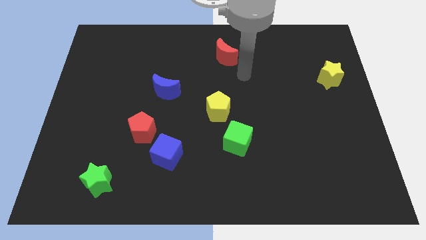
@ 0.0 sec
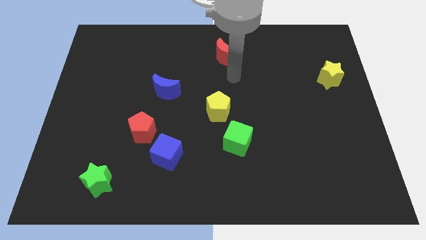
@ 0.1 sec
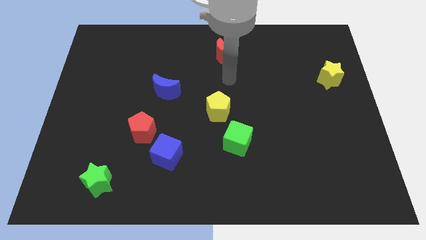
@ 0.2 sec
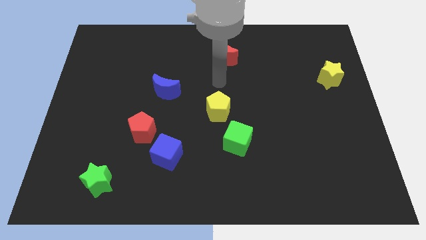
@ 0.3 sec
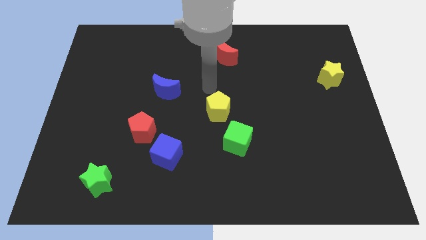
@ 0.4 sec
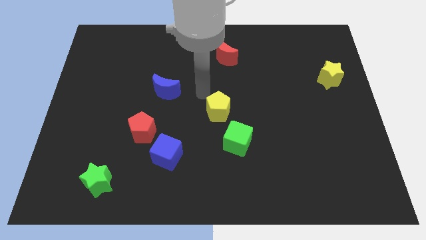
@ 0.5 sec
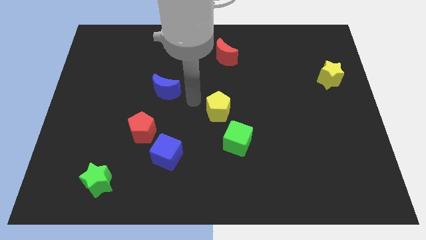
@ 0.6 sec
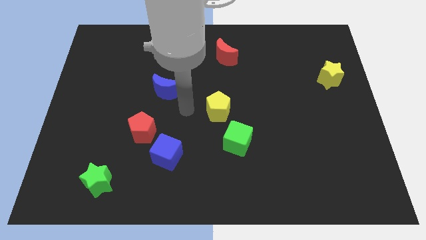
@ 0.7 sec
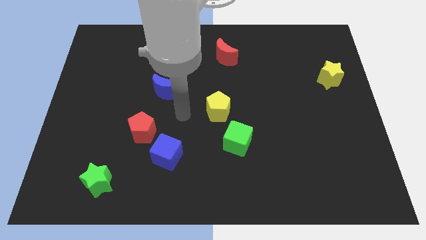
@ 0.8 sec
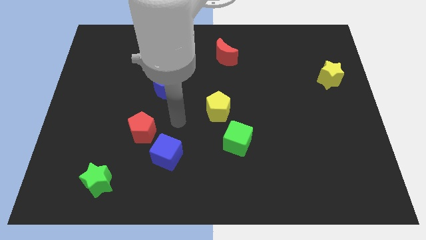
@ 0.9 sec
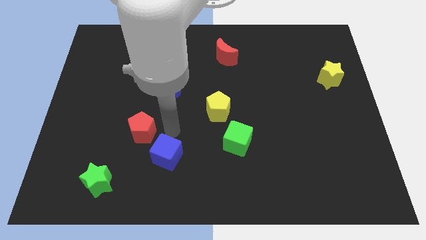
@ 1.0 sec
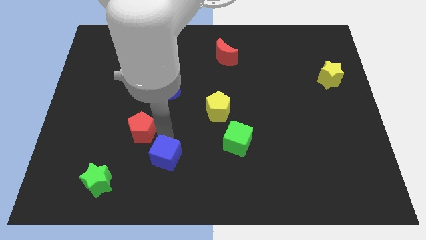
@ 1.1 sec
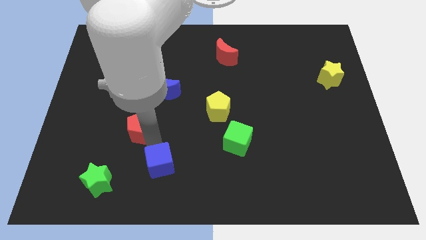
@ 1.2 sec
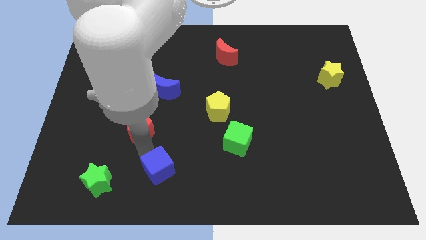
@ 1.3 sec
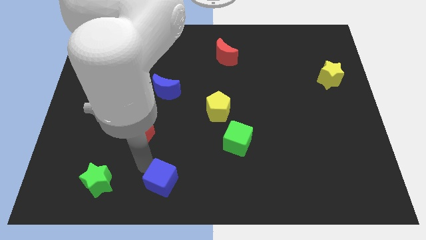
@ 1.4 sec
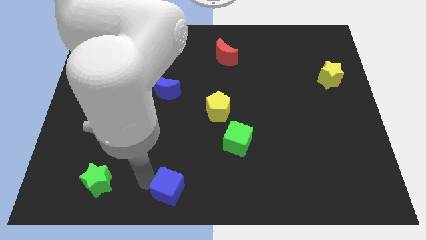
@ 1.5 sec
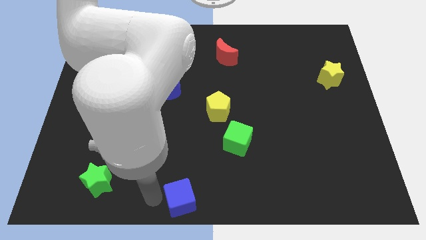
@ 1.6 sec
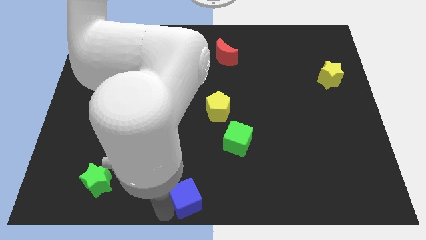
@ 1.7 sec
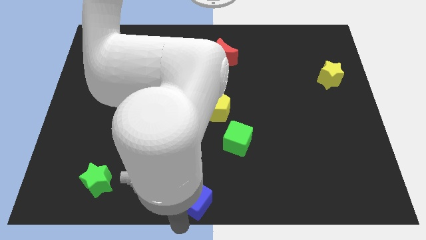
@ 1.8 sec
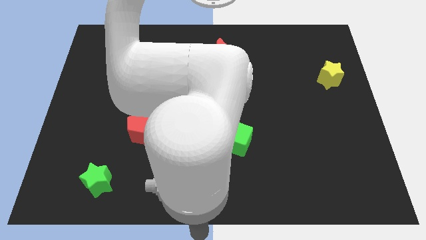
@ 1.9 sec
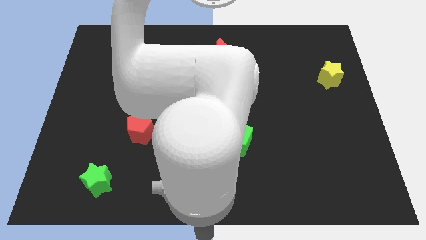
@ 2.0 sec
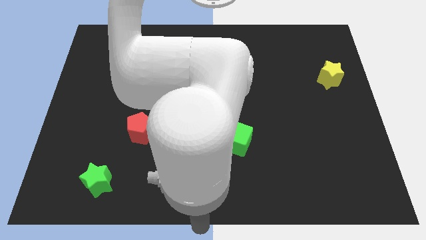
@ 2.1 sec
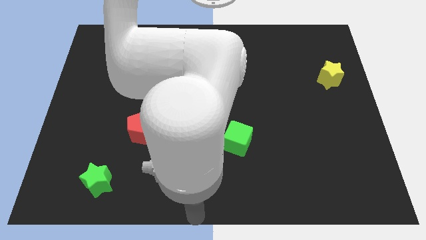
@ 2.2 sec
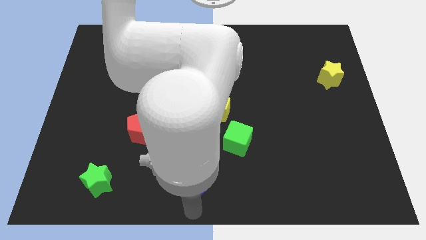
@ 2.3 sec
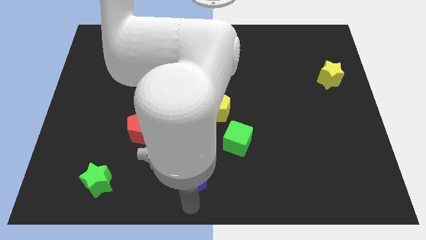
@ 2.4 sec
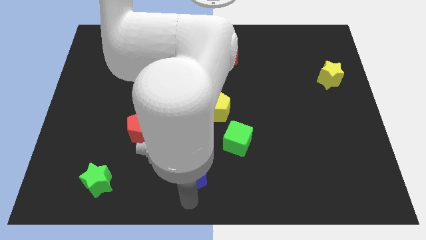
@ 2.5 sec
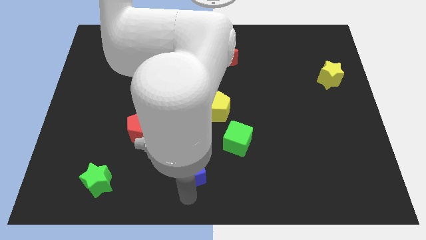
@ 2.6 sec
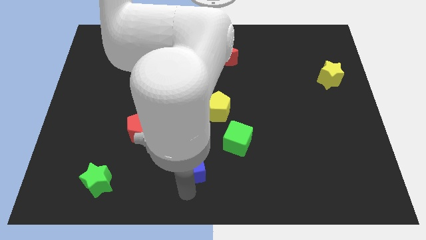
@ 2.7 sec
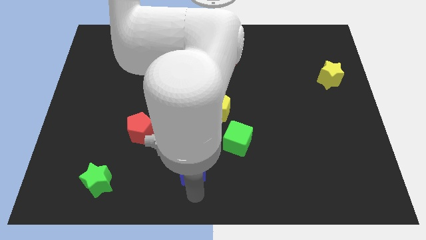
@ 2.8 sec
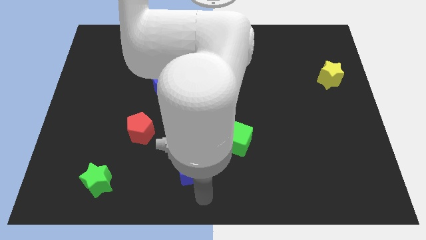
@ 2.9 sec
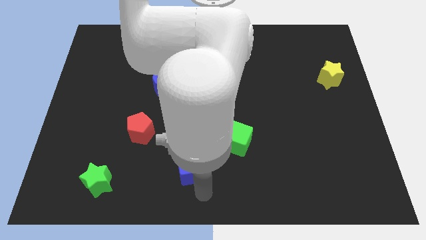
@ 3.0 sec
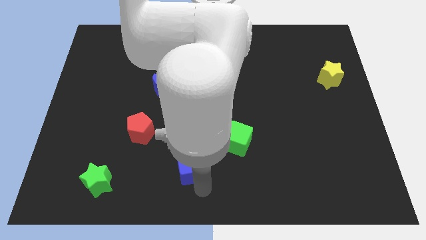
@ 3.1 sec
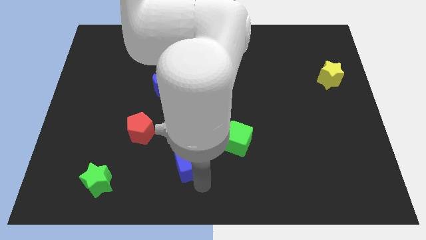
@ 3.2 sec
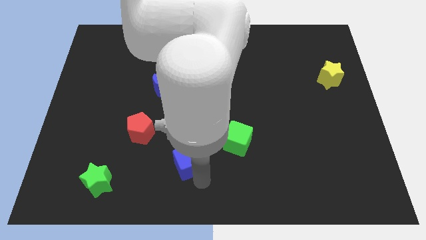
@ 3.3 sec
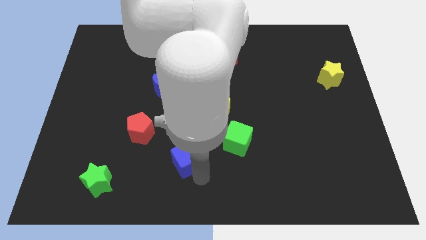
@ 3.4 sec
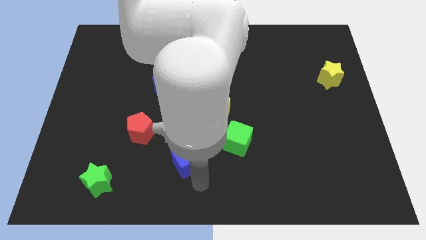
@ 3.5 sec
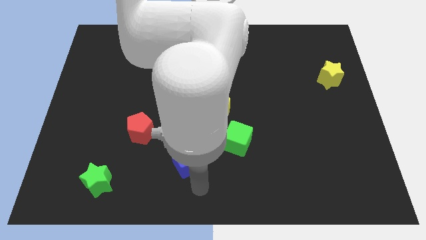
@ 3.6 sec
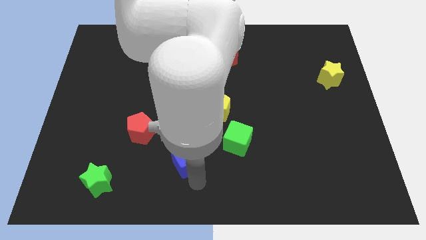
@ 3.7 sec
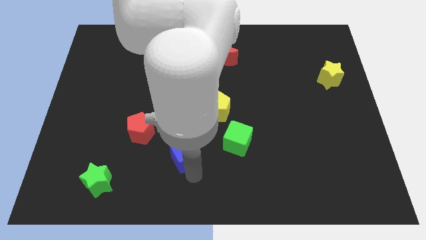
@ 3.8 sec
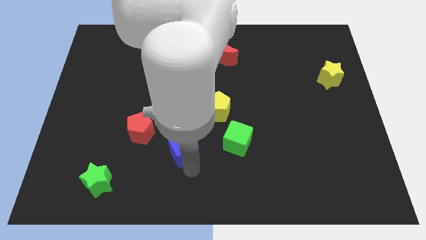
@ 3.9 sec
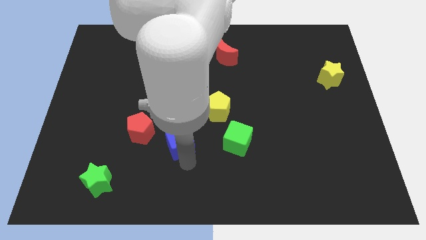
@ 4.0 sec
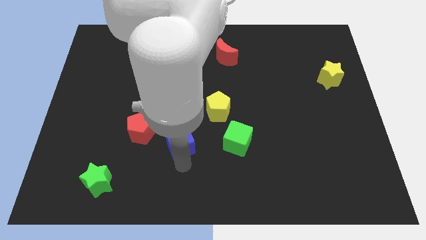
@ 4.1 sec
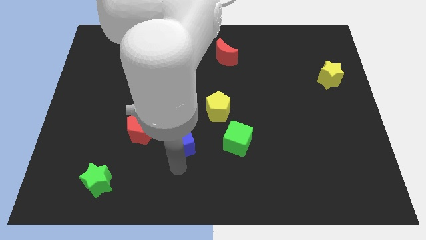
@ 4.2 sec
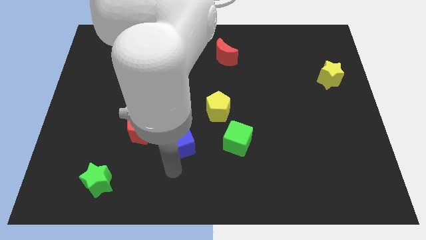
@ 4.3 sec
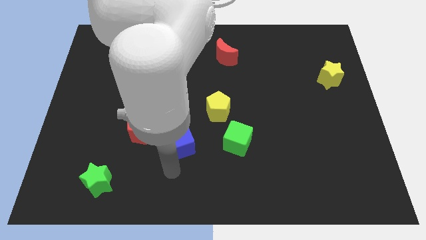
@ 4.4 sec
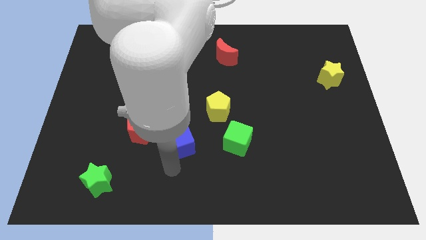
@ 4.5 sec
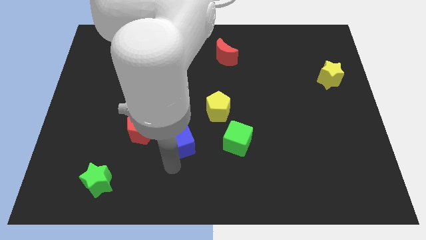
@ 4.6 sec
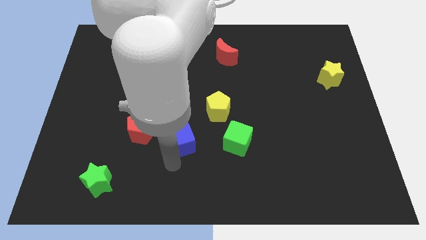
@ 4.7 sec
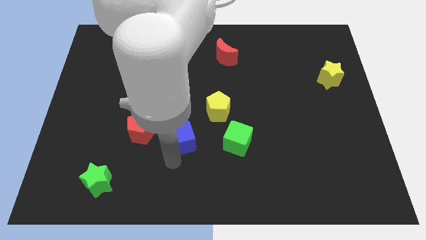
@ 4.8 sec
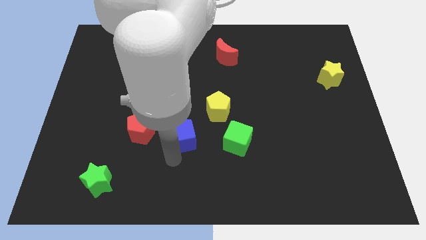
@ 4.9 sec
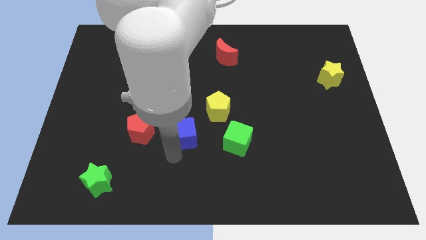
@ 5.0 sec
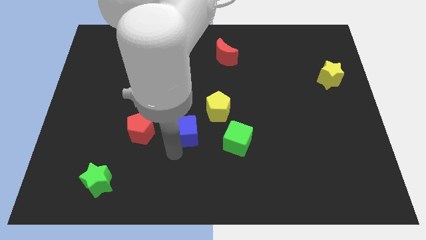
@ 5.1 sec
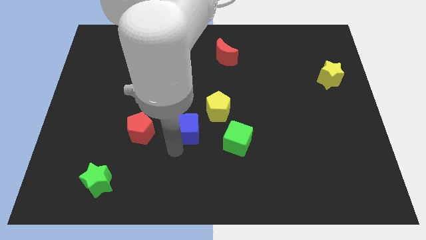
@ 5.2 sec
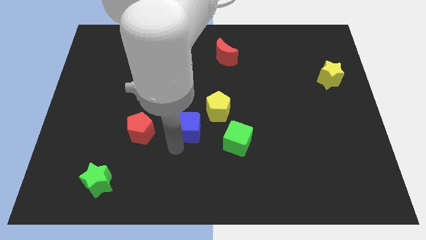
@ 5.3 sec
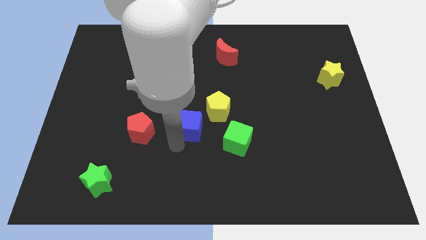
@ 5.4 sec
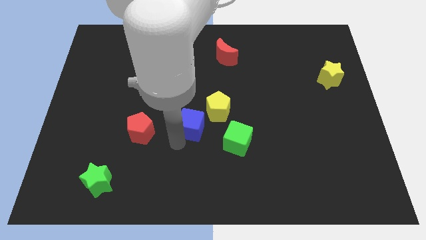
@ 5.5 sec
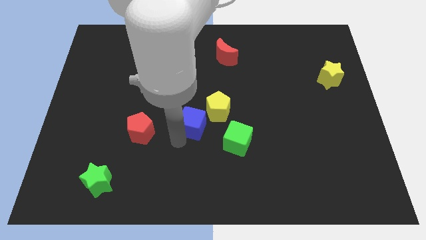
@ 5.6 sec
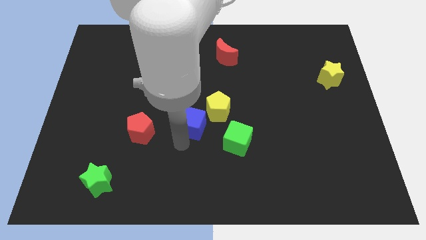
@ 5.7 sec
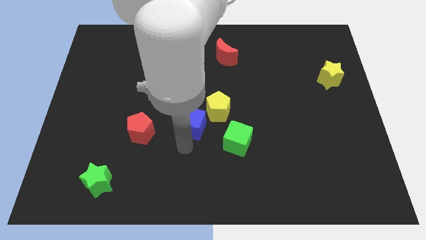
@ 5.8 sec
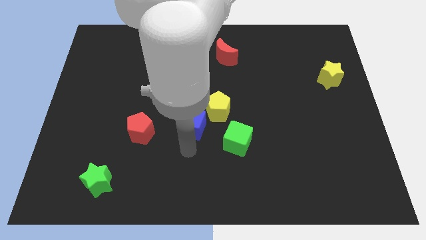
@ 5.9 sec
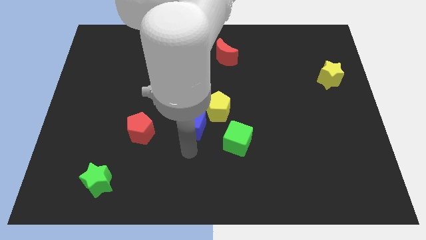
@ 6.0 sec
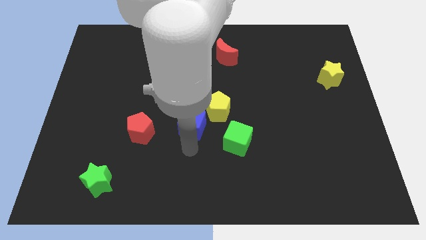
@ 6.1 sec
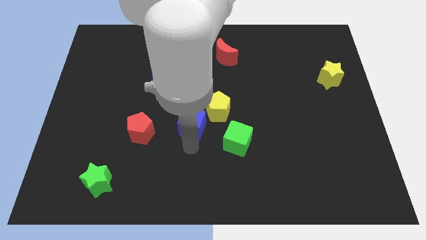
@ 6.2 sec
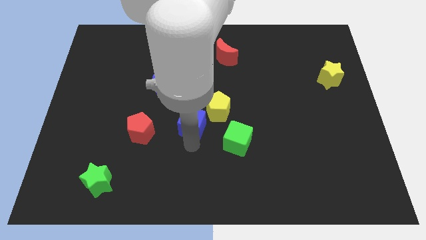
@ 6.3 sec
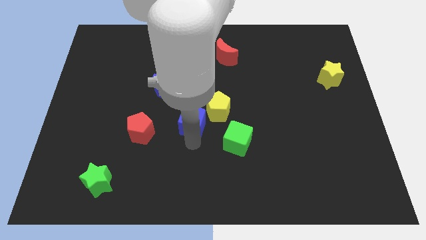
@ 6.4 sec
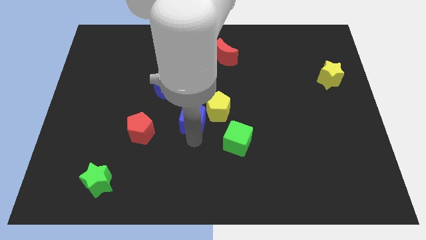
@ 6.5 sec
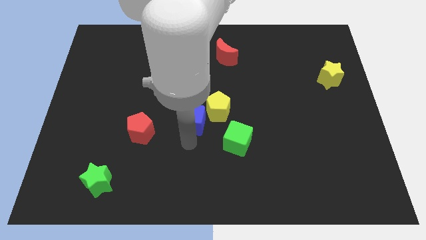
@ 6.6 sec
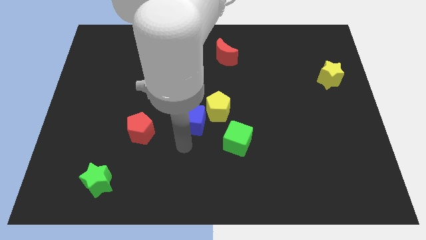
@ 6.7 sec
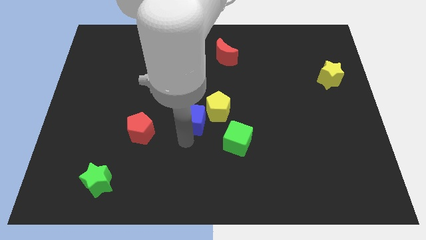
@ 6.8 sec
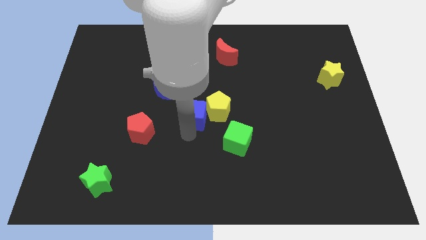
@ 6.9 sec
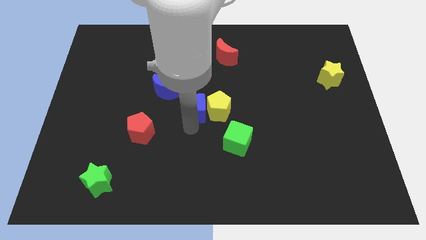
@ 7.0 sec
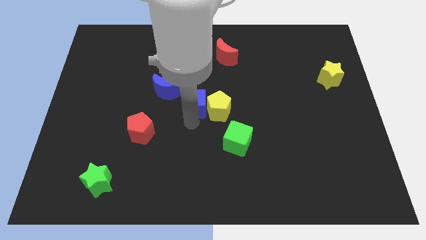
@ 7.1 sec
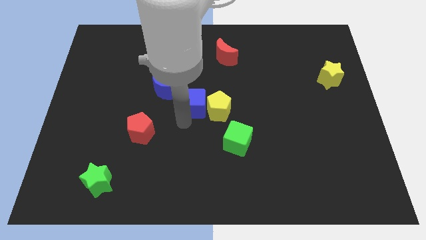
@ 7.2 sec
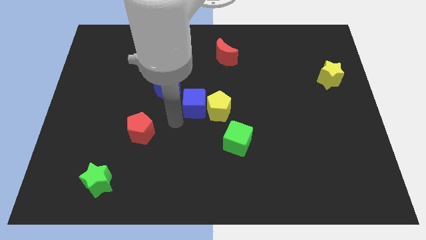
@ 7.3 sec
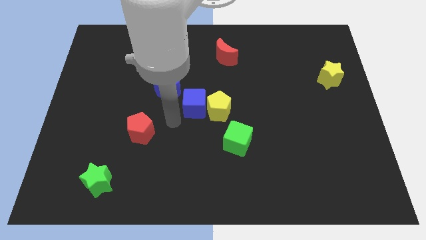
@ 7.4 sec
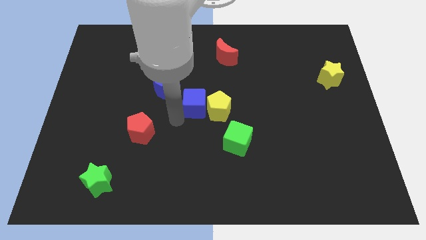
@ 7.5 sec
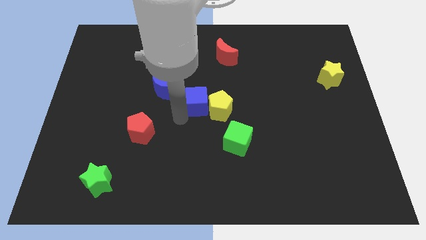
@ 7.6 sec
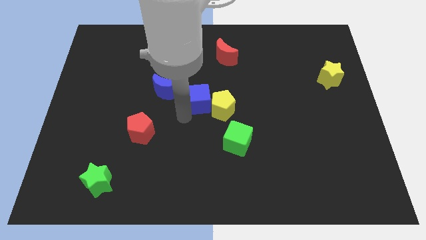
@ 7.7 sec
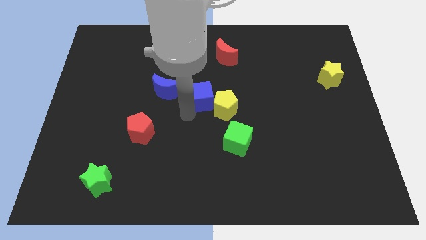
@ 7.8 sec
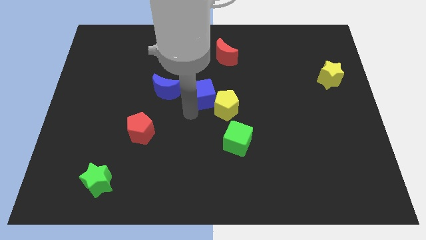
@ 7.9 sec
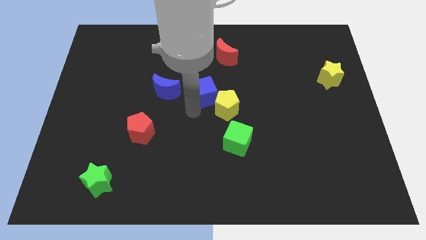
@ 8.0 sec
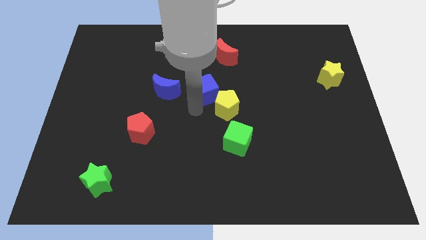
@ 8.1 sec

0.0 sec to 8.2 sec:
put the blue cube to the bottom side of the red moon
